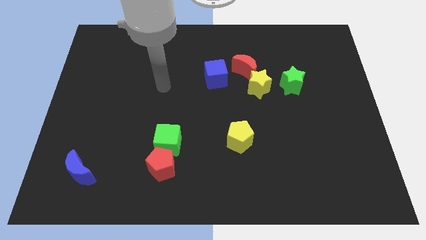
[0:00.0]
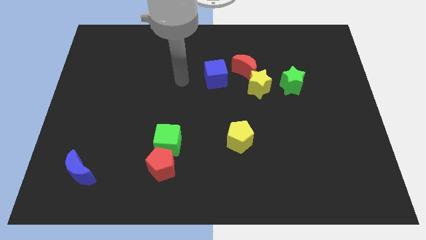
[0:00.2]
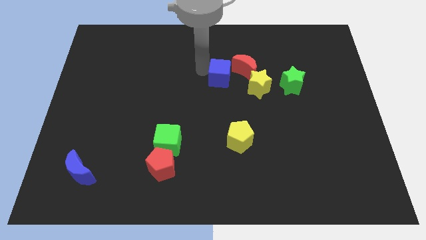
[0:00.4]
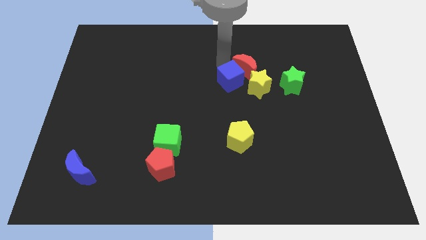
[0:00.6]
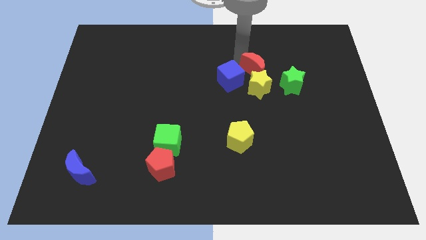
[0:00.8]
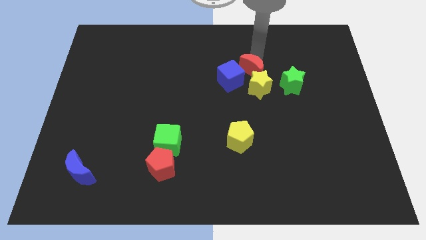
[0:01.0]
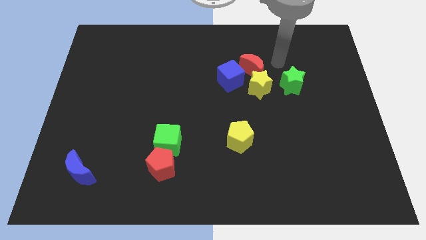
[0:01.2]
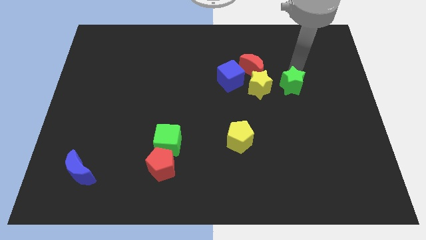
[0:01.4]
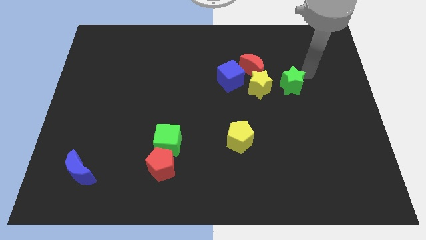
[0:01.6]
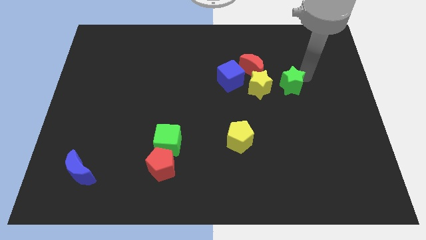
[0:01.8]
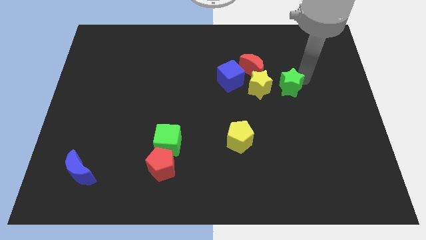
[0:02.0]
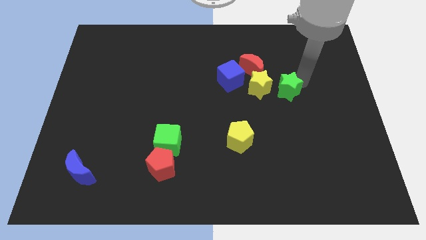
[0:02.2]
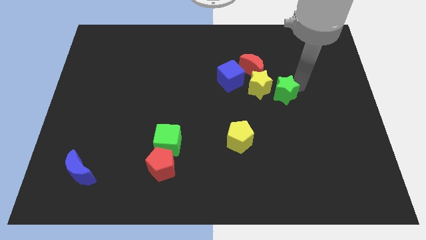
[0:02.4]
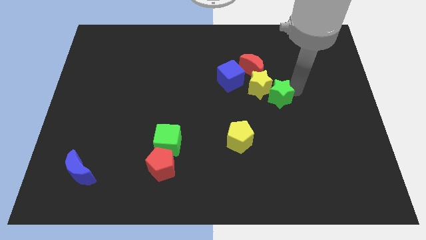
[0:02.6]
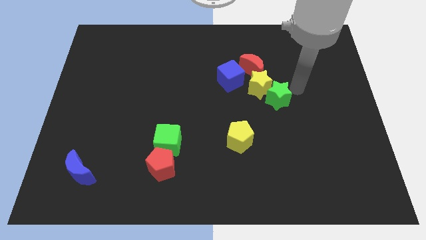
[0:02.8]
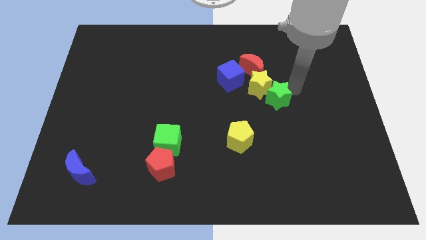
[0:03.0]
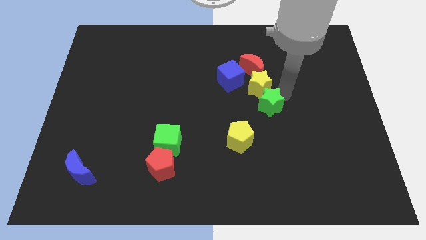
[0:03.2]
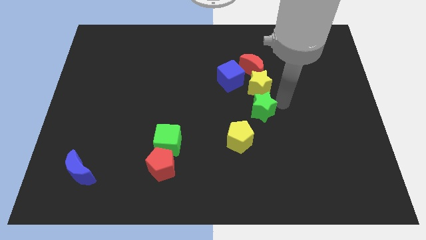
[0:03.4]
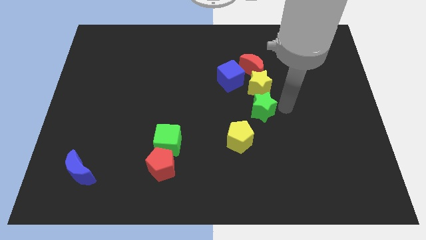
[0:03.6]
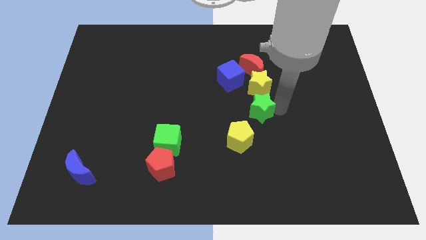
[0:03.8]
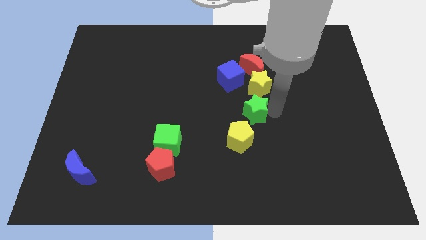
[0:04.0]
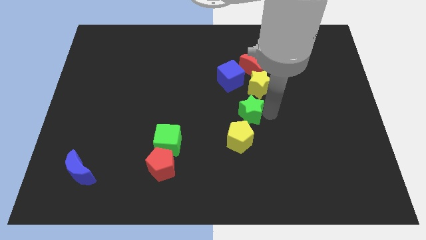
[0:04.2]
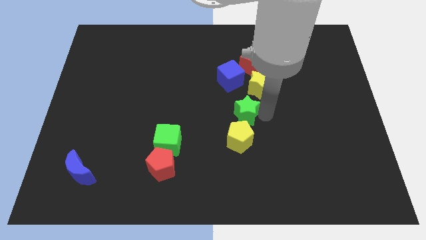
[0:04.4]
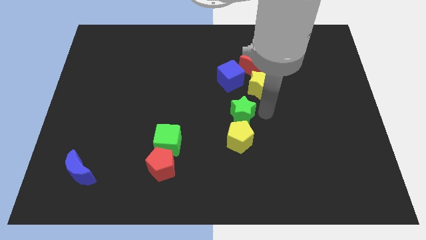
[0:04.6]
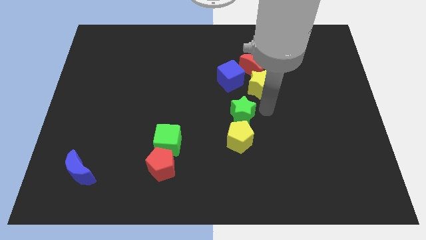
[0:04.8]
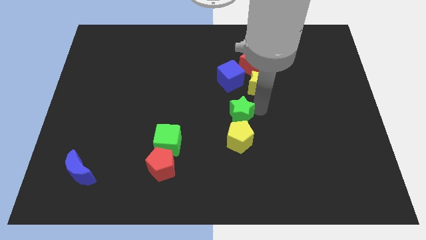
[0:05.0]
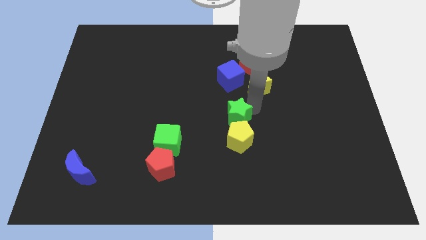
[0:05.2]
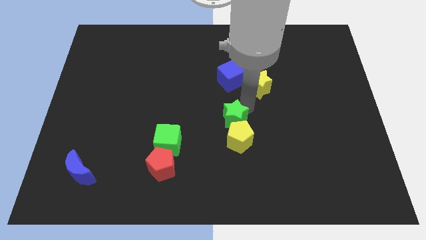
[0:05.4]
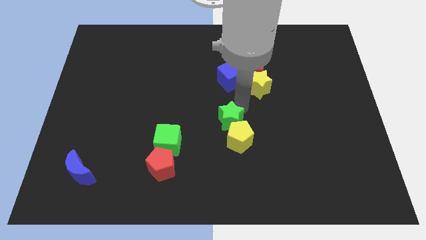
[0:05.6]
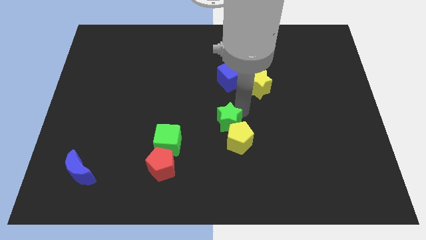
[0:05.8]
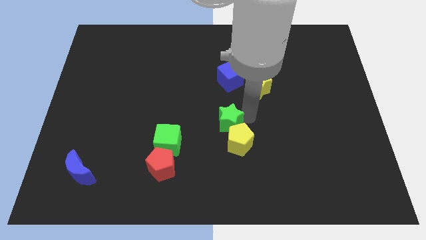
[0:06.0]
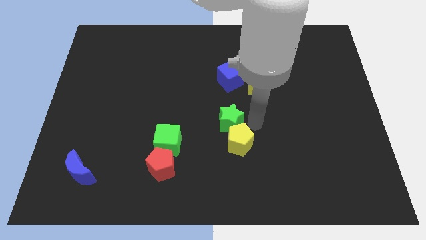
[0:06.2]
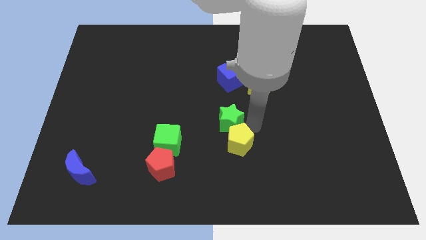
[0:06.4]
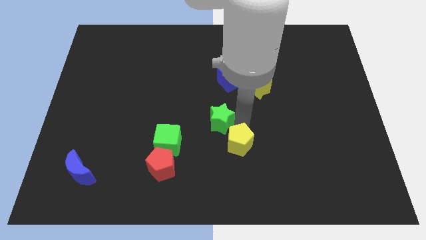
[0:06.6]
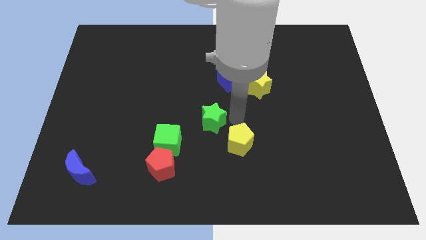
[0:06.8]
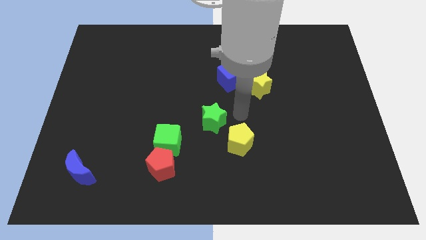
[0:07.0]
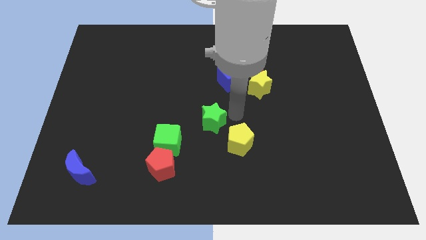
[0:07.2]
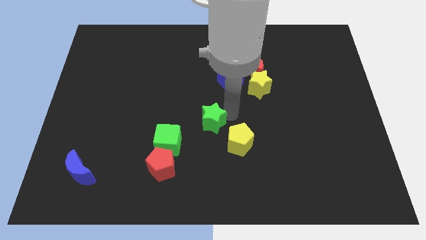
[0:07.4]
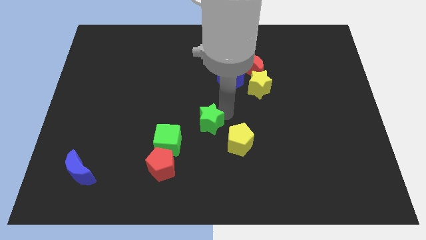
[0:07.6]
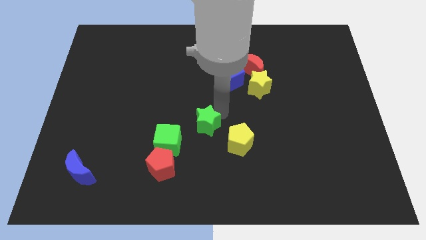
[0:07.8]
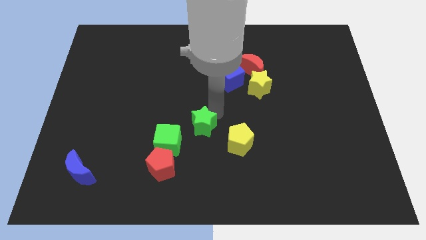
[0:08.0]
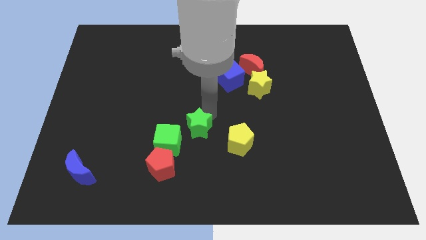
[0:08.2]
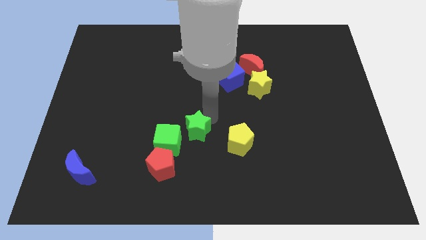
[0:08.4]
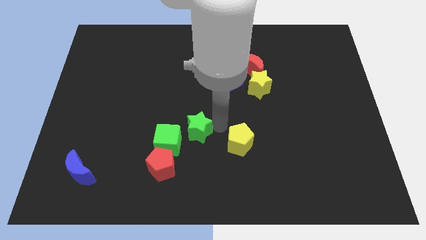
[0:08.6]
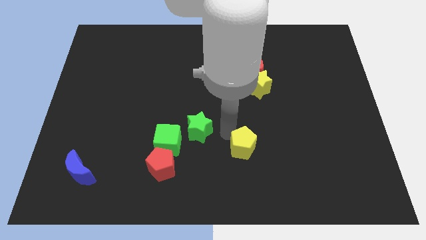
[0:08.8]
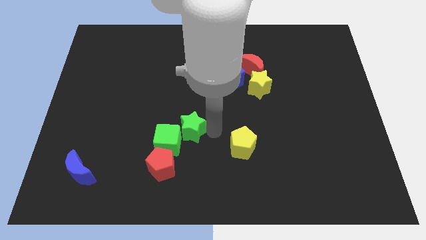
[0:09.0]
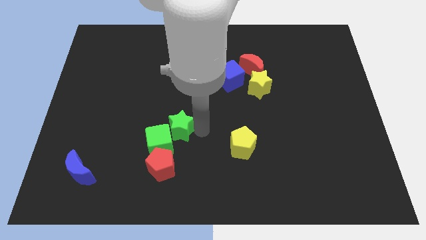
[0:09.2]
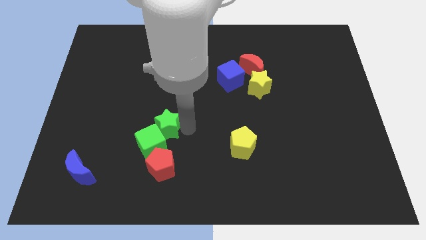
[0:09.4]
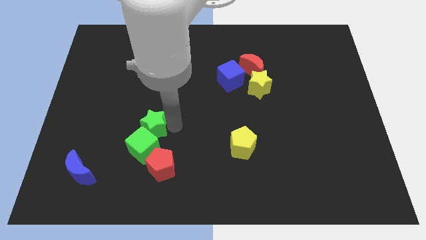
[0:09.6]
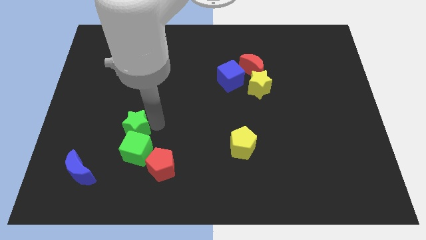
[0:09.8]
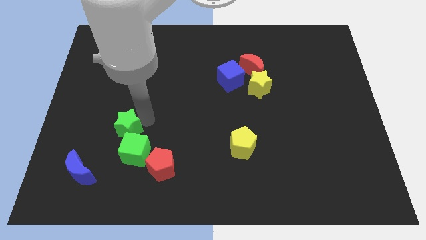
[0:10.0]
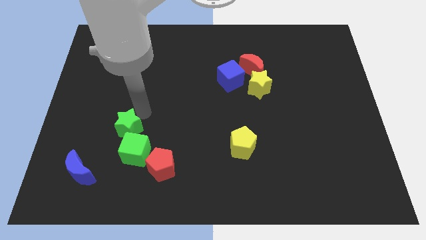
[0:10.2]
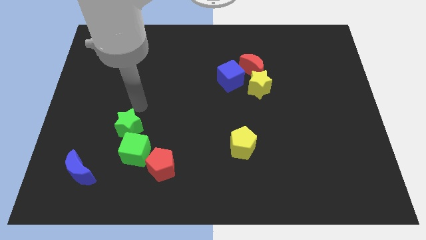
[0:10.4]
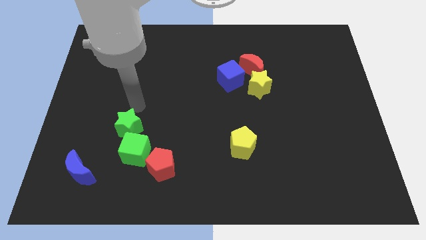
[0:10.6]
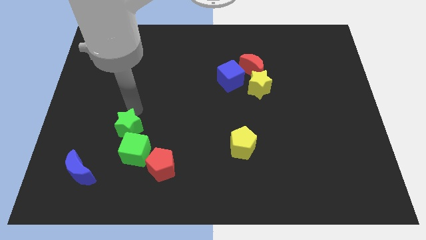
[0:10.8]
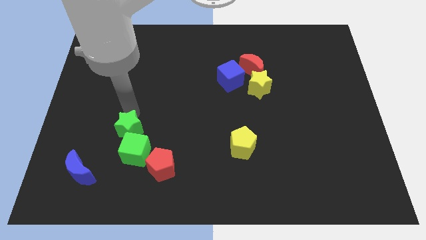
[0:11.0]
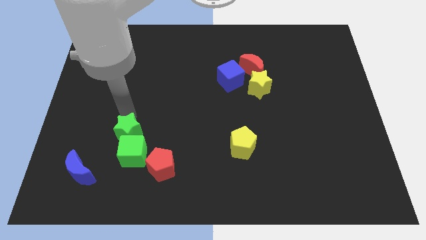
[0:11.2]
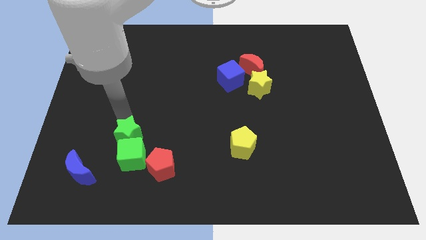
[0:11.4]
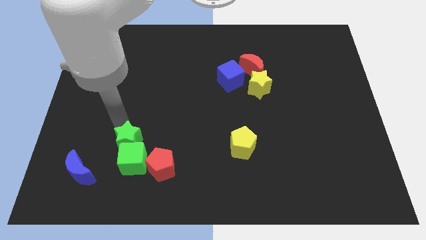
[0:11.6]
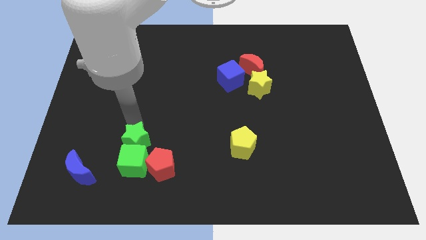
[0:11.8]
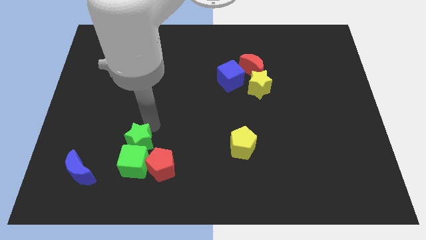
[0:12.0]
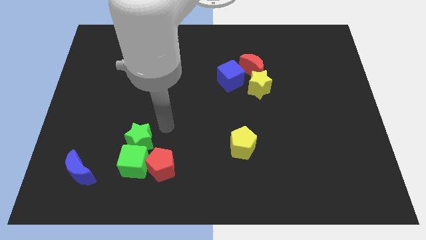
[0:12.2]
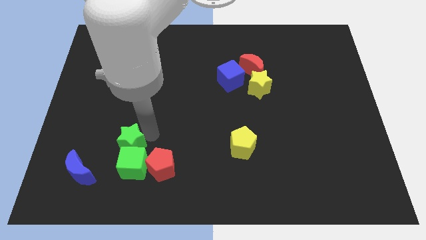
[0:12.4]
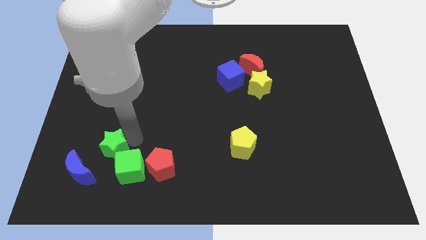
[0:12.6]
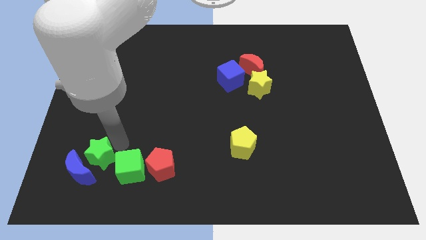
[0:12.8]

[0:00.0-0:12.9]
slide the green star towards the blue moon
